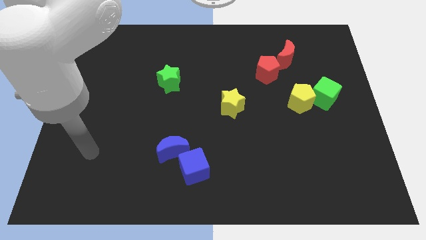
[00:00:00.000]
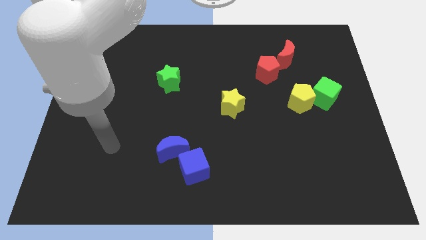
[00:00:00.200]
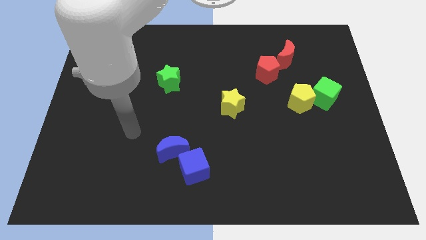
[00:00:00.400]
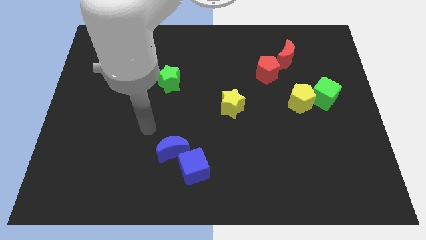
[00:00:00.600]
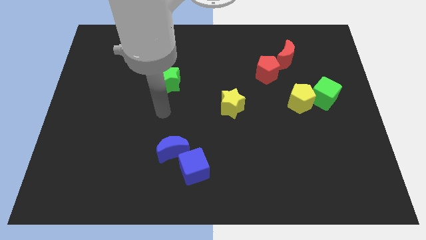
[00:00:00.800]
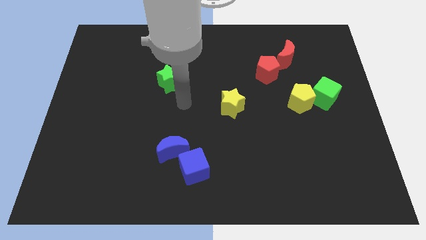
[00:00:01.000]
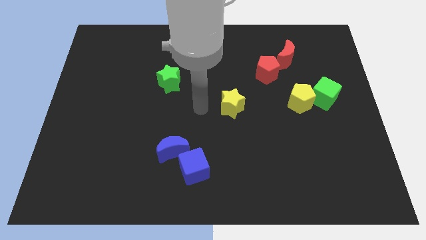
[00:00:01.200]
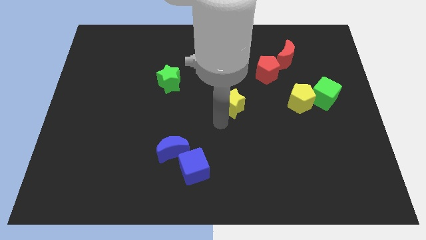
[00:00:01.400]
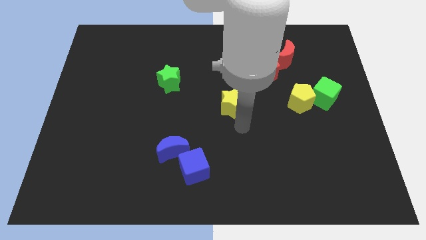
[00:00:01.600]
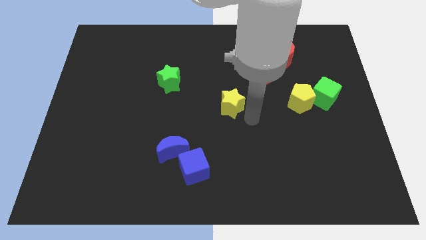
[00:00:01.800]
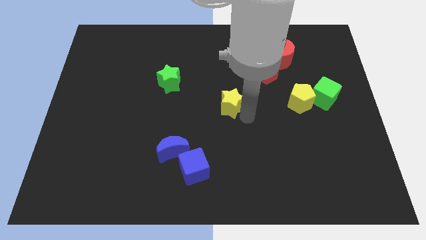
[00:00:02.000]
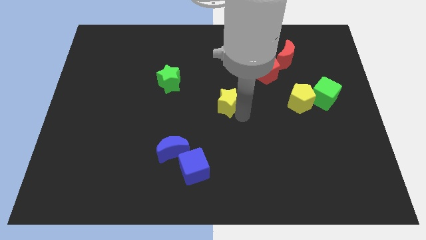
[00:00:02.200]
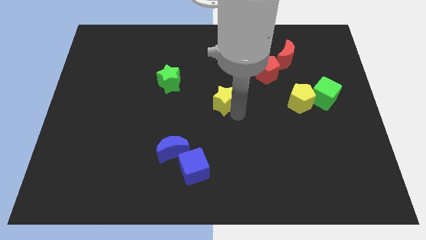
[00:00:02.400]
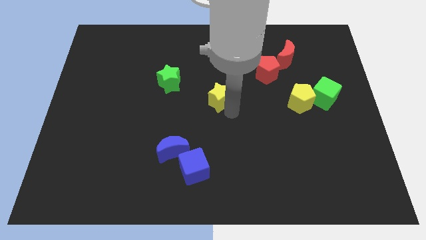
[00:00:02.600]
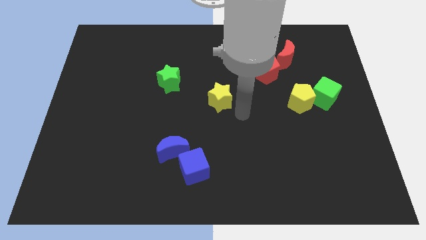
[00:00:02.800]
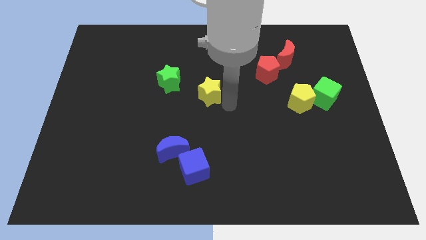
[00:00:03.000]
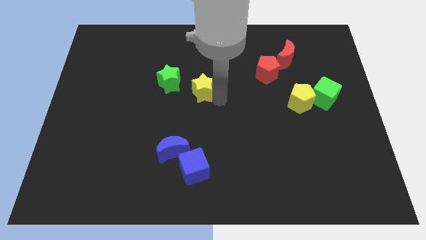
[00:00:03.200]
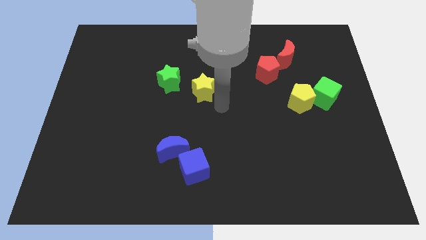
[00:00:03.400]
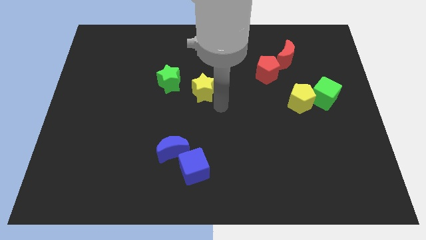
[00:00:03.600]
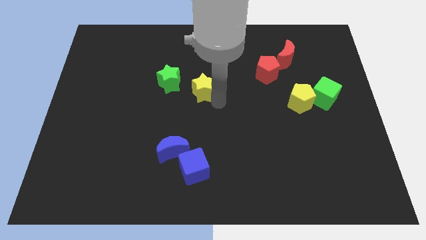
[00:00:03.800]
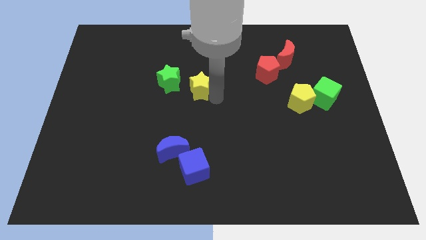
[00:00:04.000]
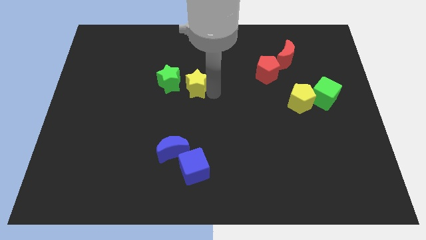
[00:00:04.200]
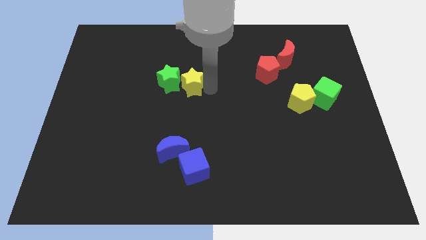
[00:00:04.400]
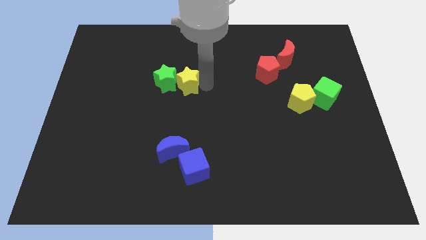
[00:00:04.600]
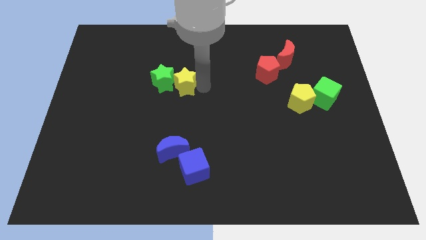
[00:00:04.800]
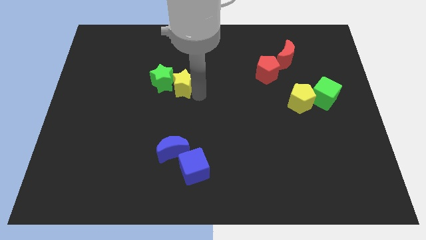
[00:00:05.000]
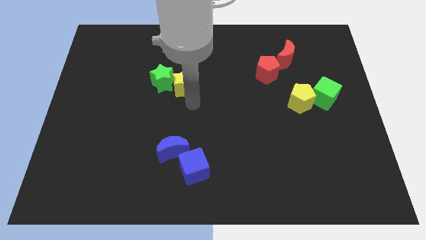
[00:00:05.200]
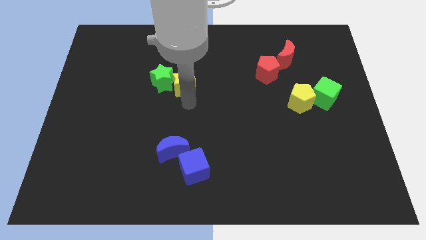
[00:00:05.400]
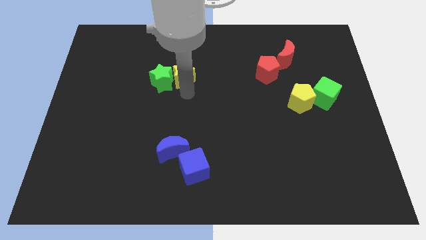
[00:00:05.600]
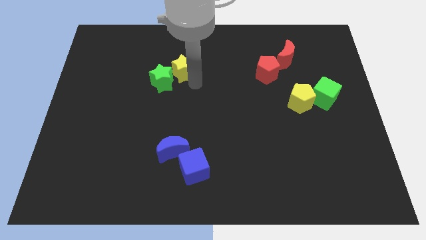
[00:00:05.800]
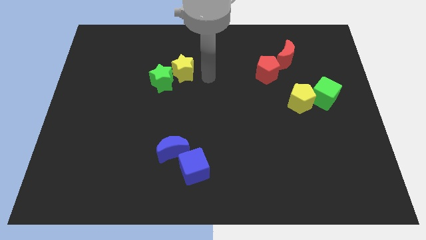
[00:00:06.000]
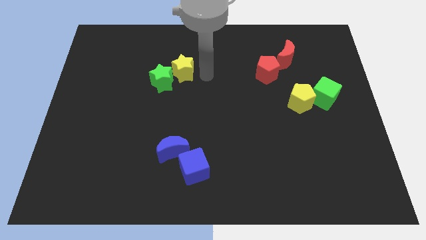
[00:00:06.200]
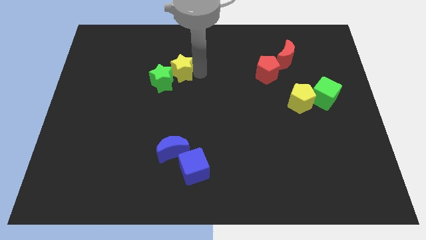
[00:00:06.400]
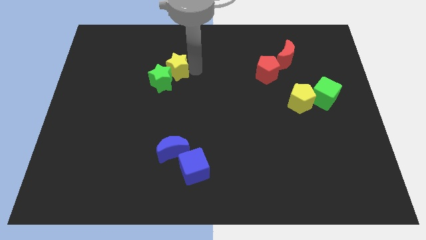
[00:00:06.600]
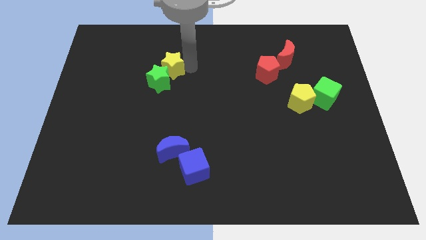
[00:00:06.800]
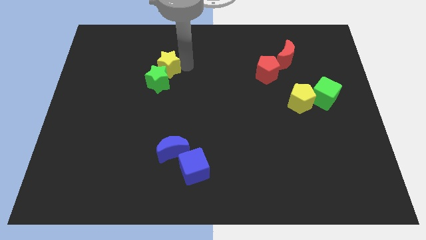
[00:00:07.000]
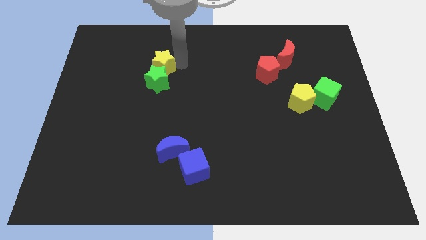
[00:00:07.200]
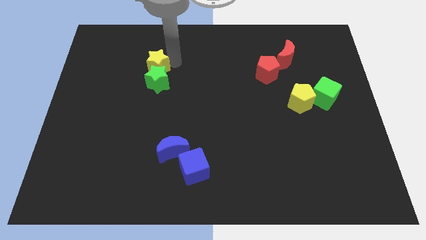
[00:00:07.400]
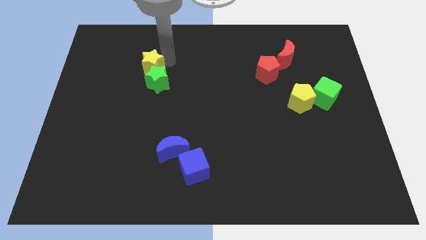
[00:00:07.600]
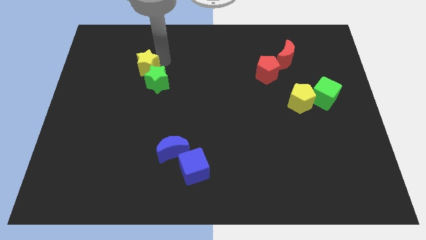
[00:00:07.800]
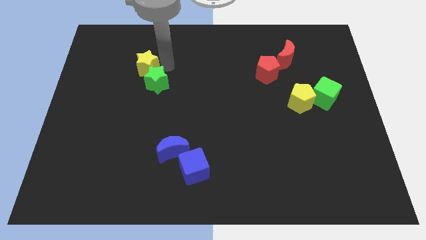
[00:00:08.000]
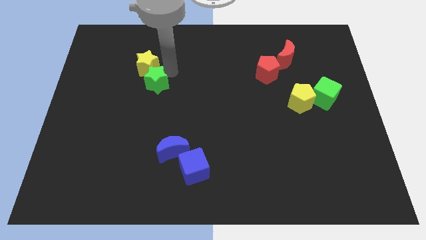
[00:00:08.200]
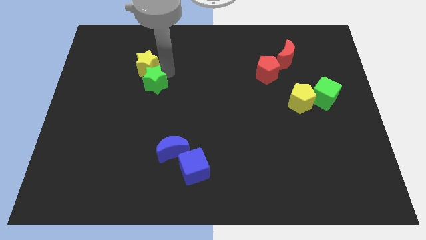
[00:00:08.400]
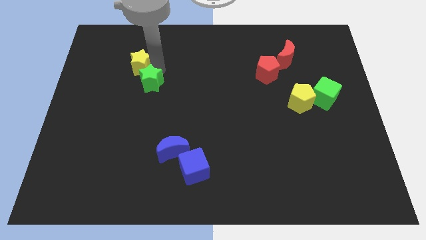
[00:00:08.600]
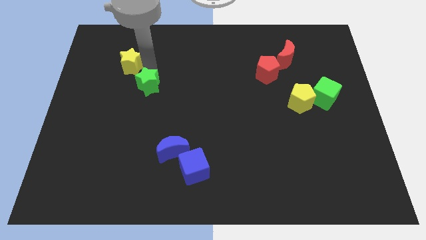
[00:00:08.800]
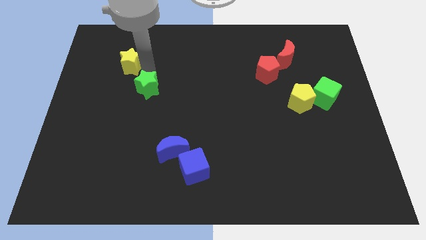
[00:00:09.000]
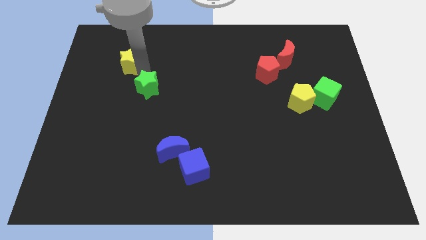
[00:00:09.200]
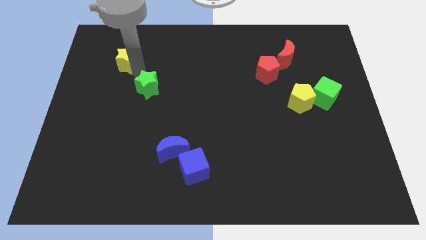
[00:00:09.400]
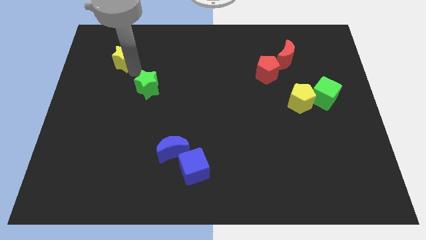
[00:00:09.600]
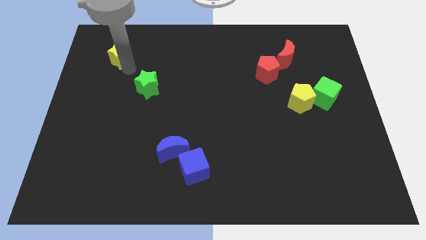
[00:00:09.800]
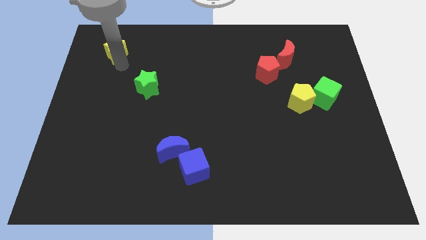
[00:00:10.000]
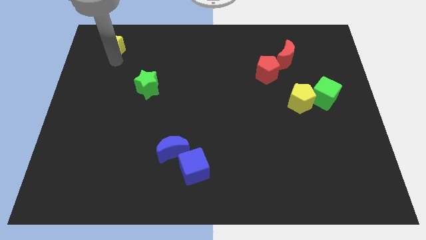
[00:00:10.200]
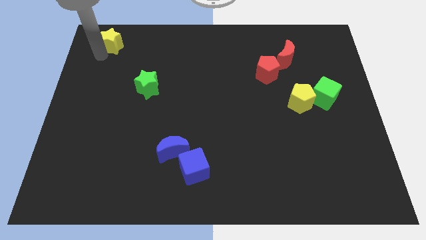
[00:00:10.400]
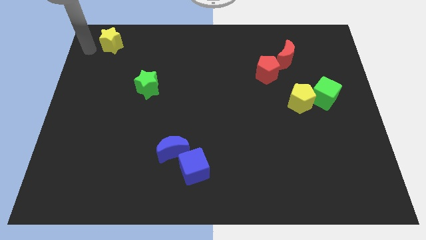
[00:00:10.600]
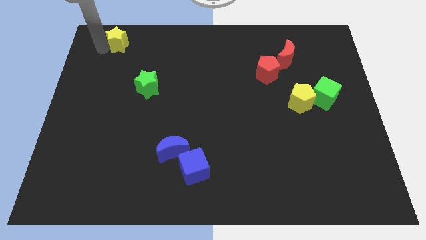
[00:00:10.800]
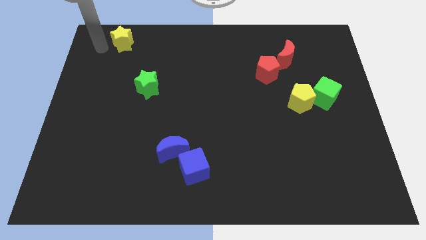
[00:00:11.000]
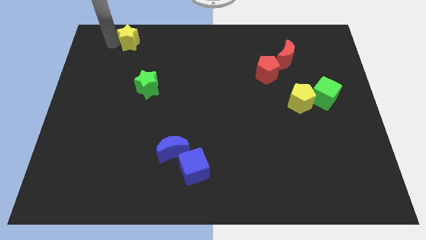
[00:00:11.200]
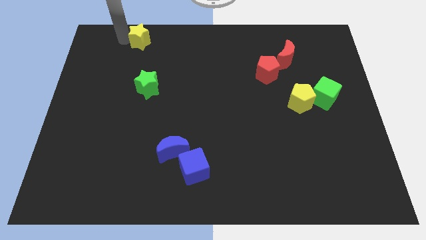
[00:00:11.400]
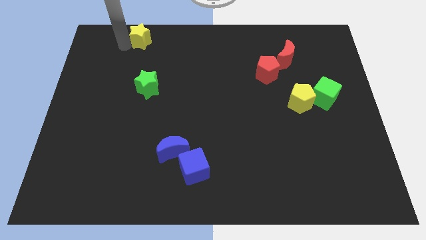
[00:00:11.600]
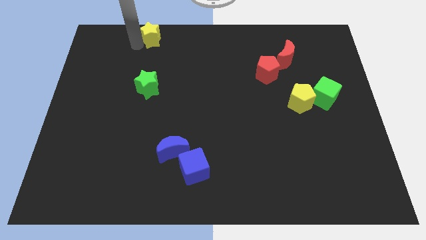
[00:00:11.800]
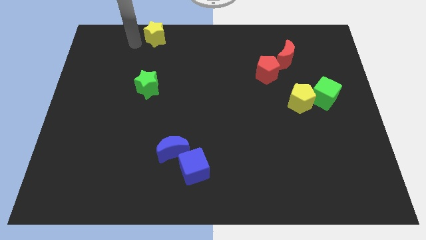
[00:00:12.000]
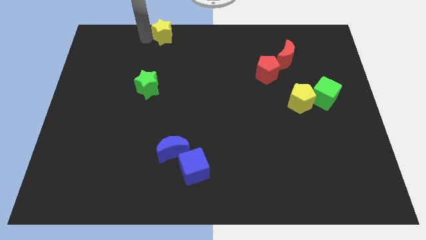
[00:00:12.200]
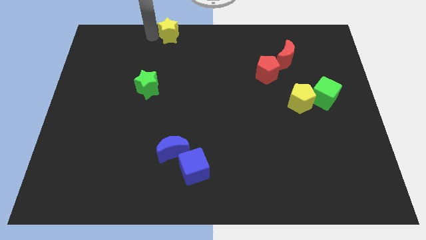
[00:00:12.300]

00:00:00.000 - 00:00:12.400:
push the yellow star to the towards your base

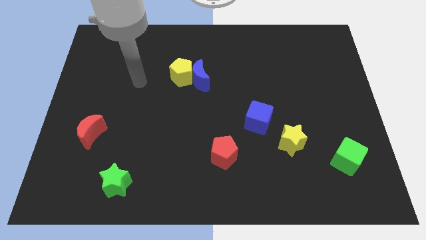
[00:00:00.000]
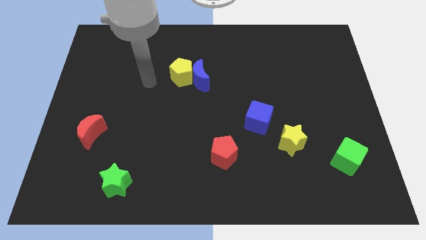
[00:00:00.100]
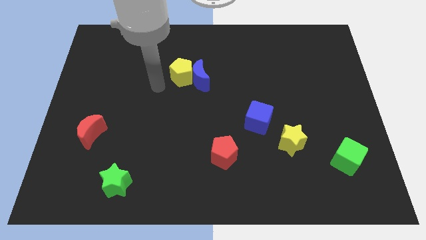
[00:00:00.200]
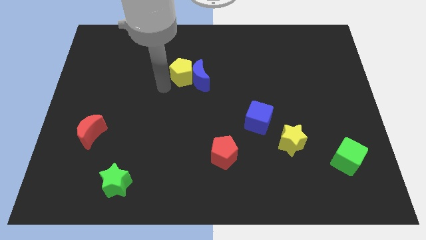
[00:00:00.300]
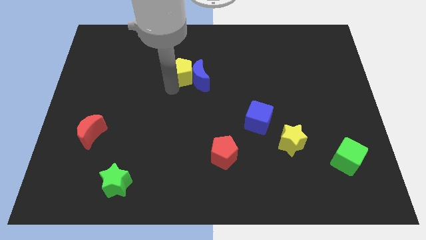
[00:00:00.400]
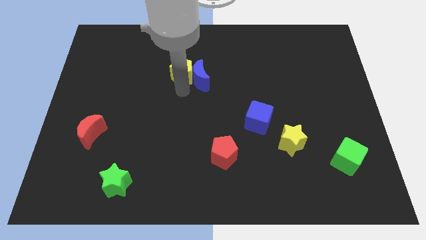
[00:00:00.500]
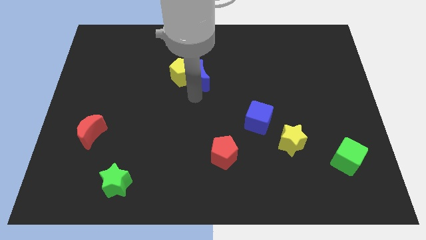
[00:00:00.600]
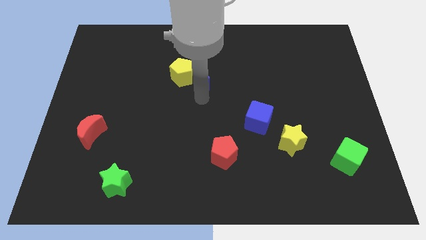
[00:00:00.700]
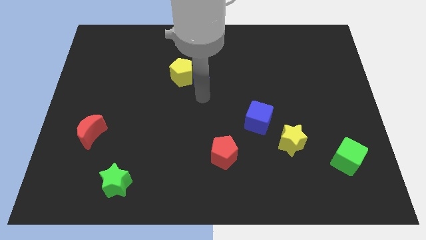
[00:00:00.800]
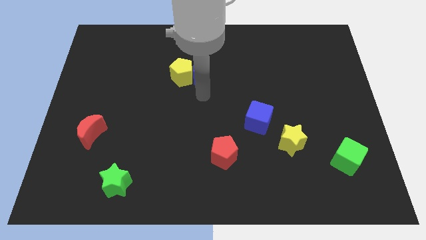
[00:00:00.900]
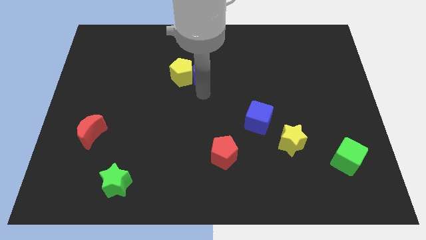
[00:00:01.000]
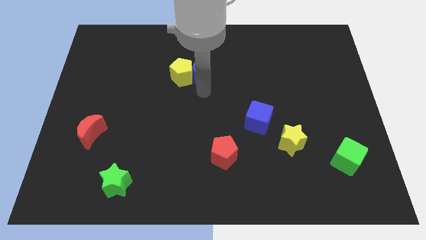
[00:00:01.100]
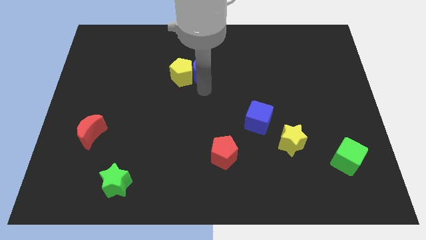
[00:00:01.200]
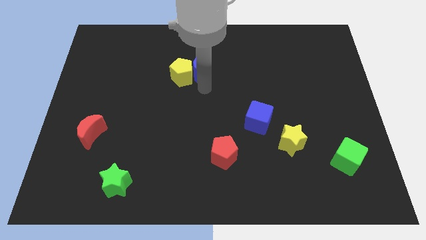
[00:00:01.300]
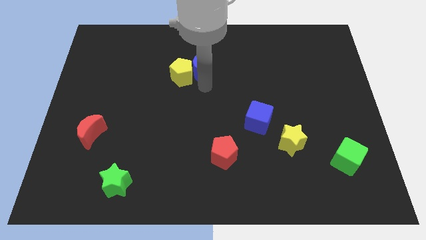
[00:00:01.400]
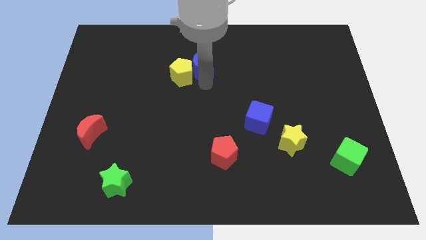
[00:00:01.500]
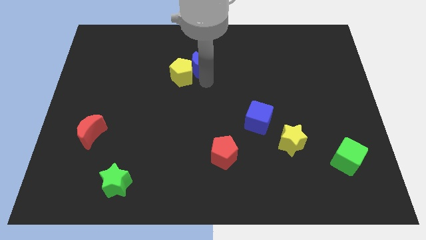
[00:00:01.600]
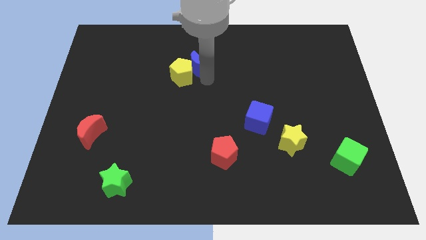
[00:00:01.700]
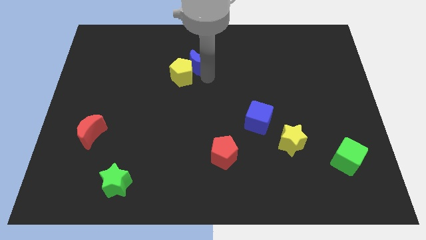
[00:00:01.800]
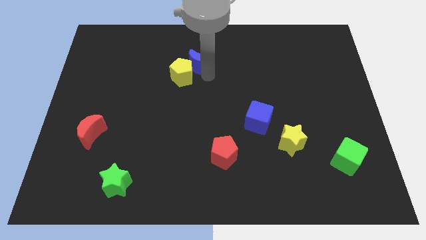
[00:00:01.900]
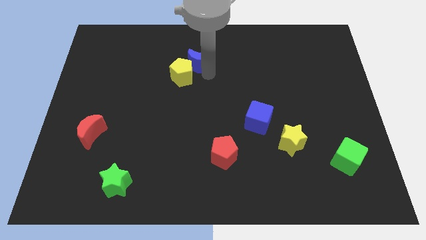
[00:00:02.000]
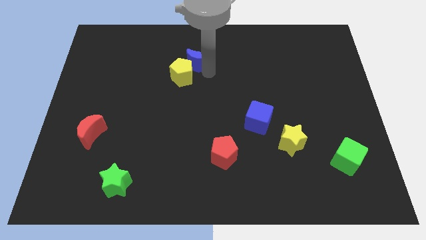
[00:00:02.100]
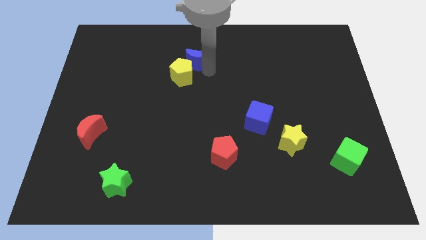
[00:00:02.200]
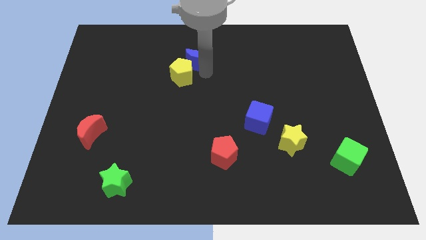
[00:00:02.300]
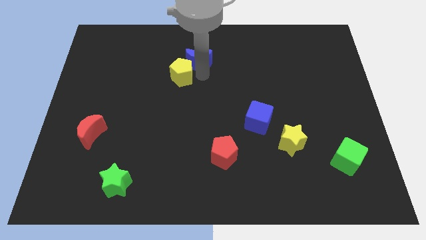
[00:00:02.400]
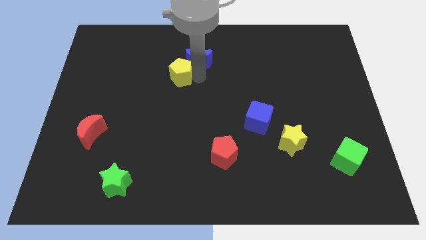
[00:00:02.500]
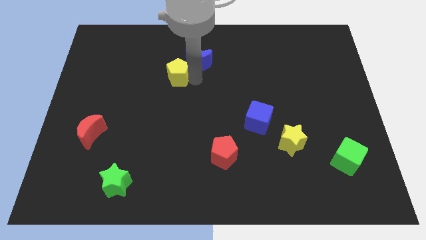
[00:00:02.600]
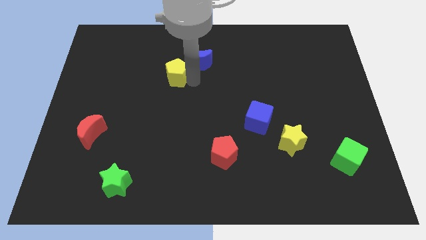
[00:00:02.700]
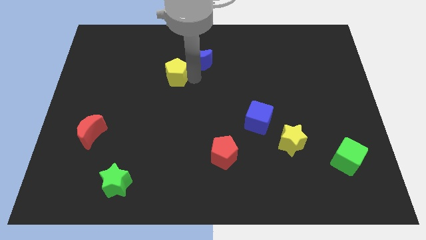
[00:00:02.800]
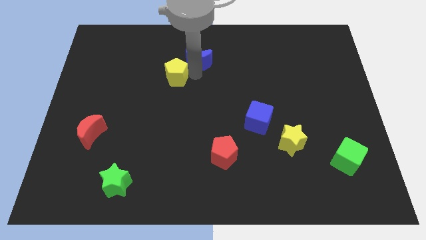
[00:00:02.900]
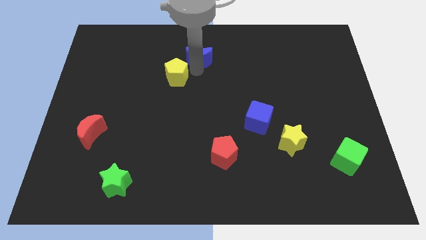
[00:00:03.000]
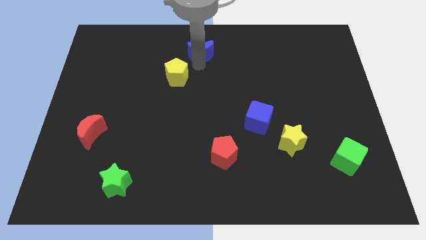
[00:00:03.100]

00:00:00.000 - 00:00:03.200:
slide the blue moon to the towards your base
